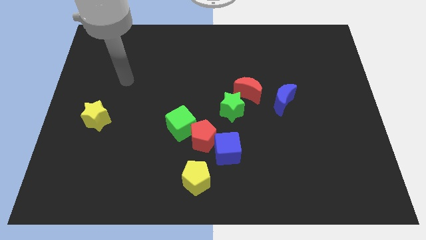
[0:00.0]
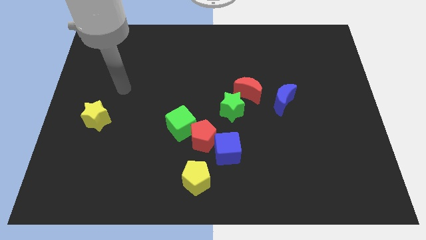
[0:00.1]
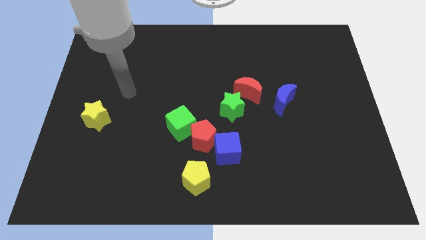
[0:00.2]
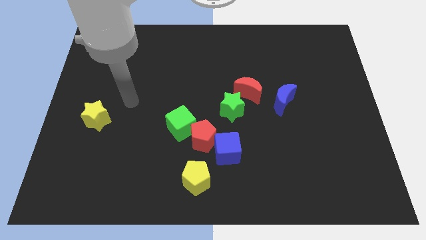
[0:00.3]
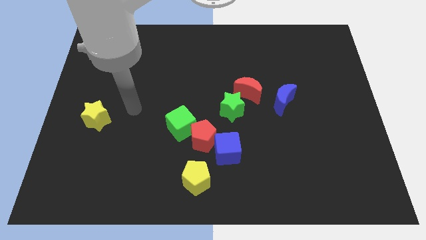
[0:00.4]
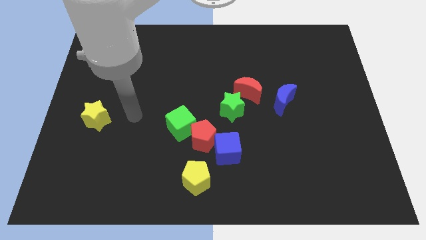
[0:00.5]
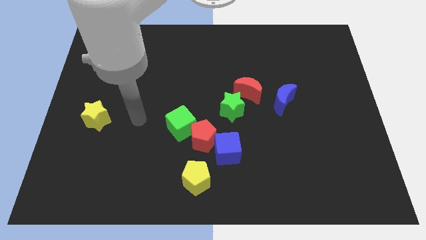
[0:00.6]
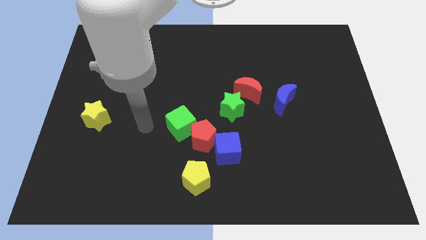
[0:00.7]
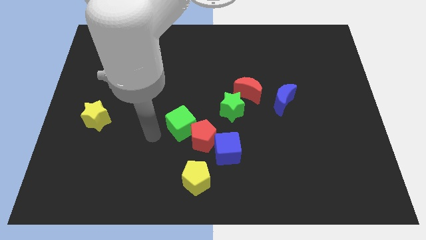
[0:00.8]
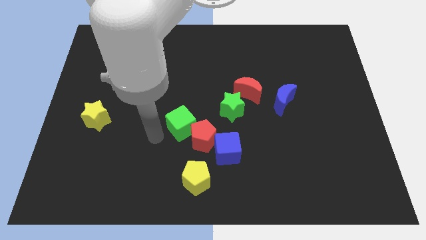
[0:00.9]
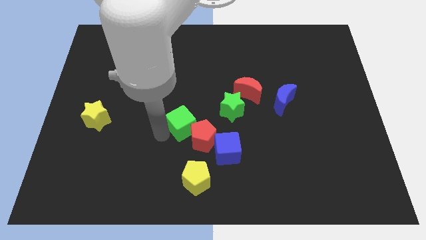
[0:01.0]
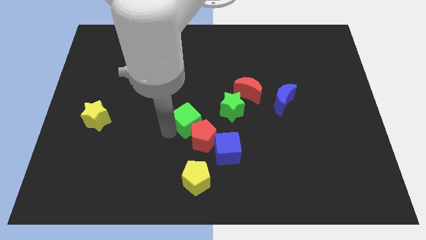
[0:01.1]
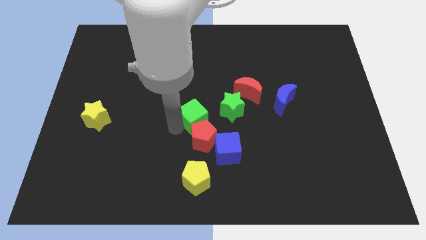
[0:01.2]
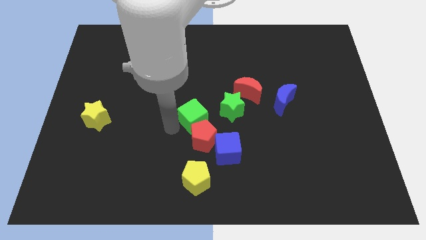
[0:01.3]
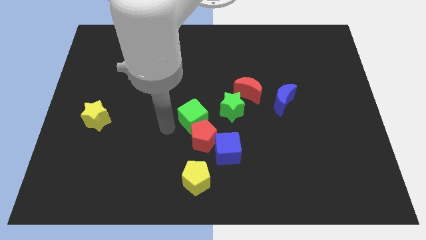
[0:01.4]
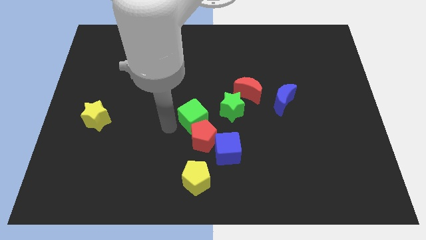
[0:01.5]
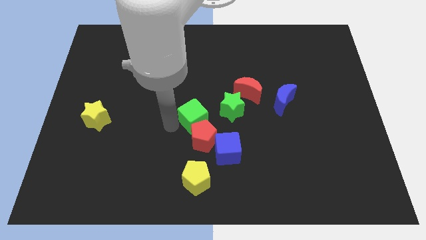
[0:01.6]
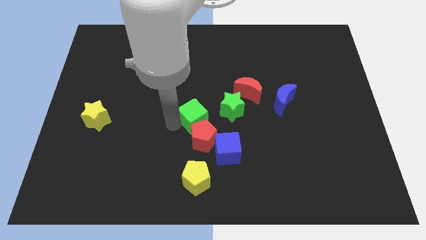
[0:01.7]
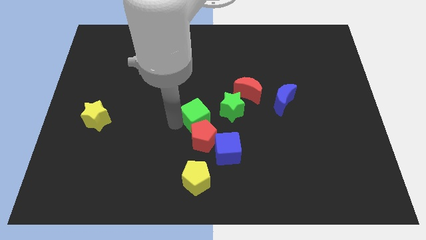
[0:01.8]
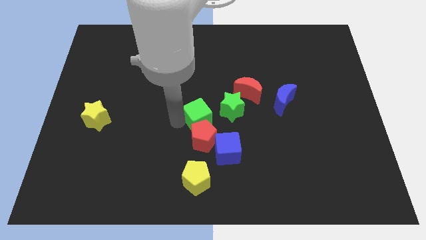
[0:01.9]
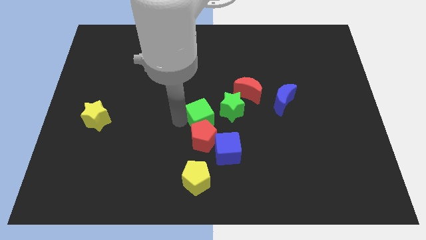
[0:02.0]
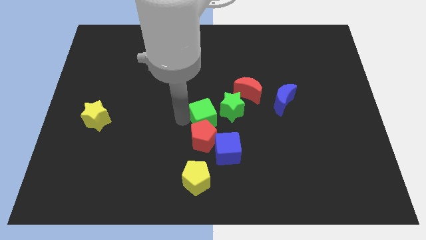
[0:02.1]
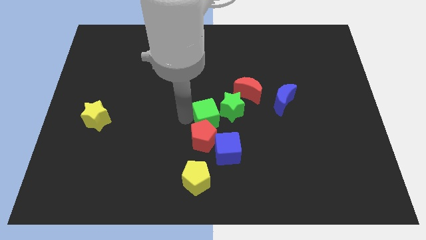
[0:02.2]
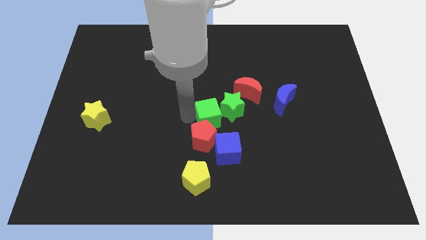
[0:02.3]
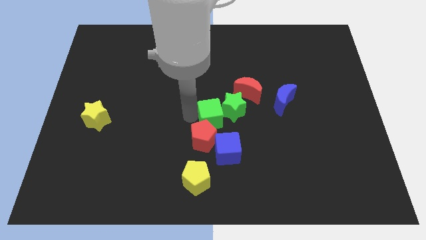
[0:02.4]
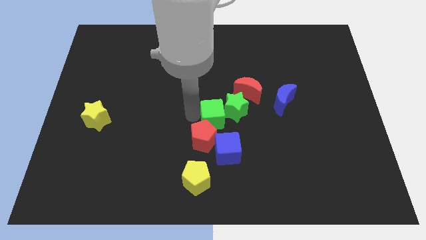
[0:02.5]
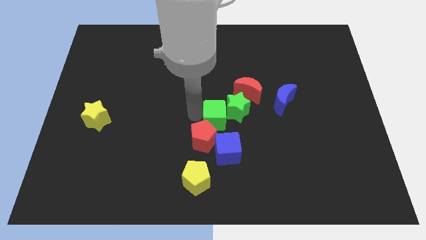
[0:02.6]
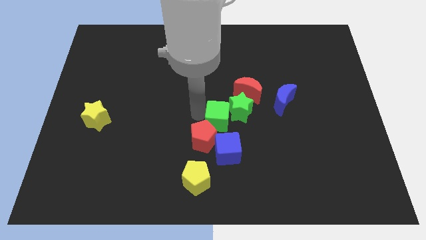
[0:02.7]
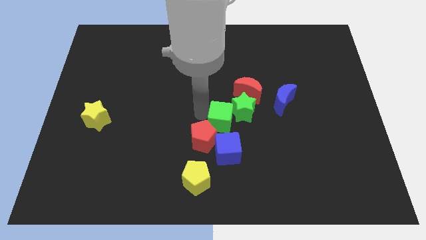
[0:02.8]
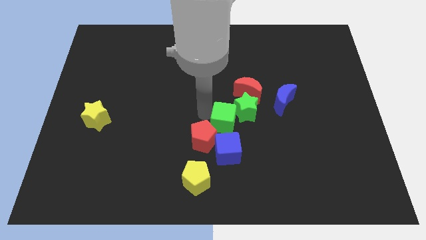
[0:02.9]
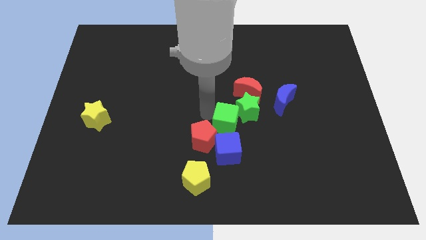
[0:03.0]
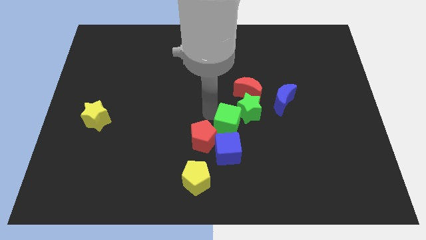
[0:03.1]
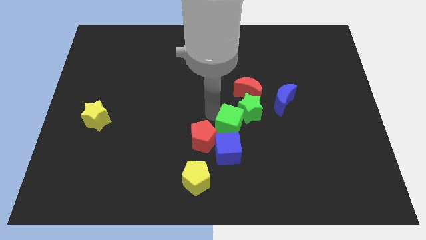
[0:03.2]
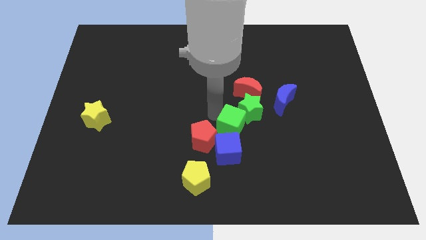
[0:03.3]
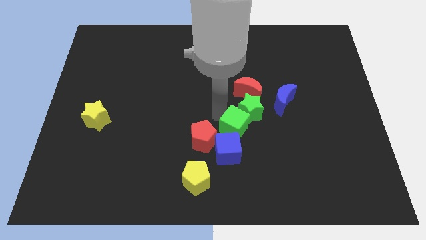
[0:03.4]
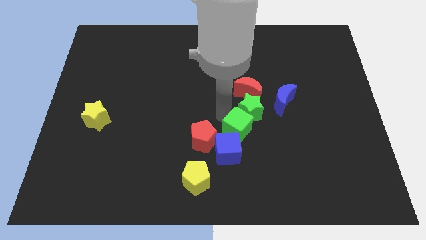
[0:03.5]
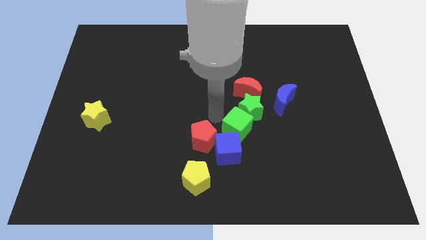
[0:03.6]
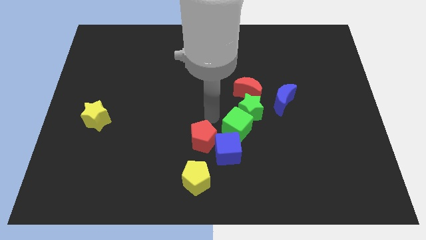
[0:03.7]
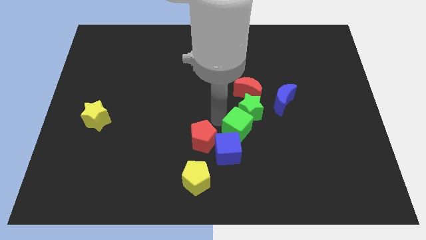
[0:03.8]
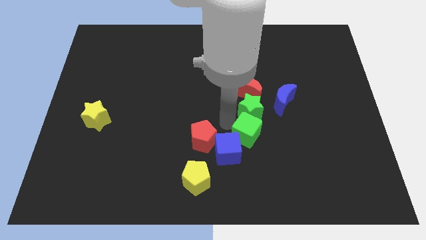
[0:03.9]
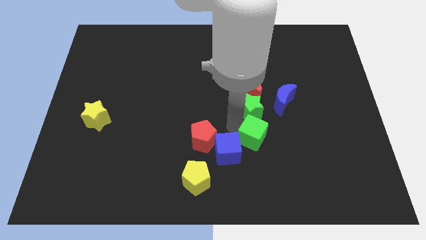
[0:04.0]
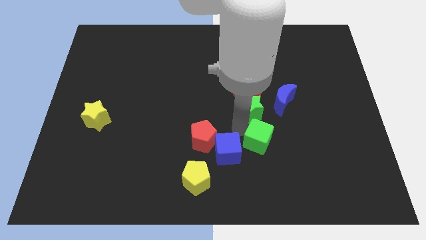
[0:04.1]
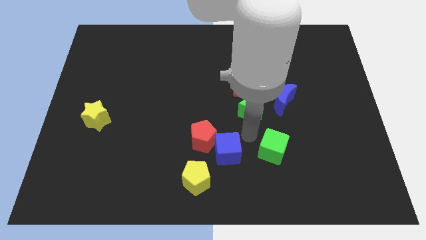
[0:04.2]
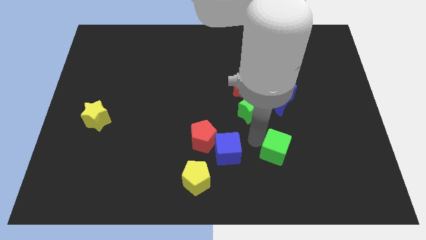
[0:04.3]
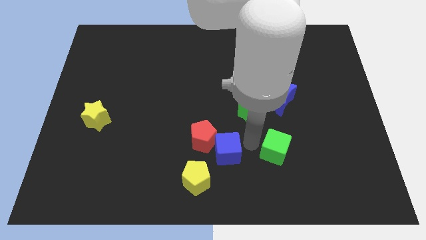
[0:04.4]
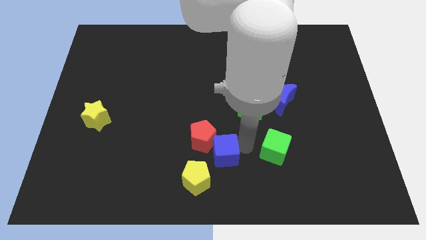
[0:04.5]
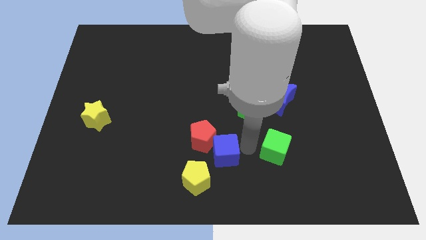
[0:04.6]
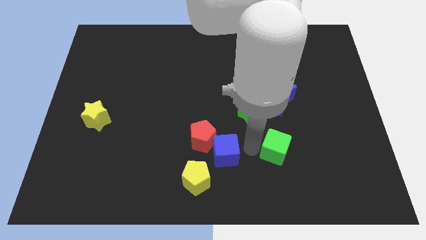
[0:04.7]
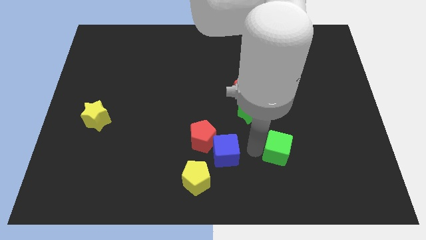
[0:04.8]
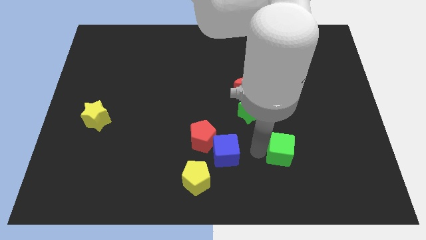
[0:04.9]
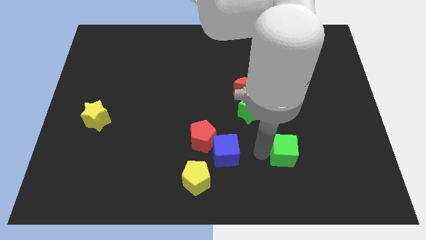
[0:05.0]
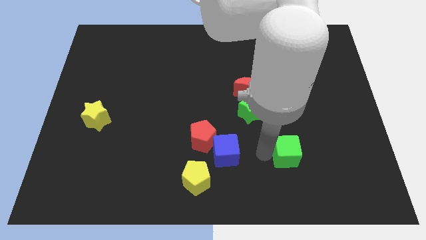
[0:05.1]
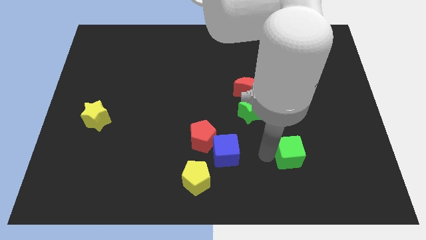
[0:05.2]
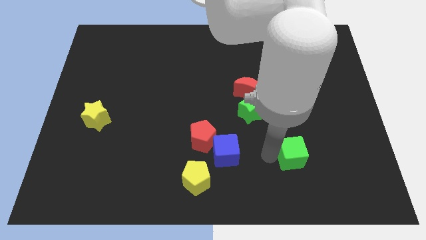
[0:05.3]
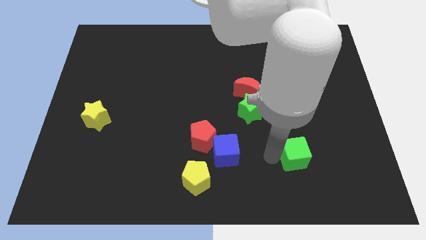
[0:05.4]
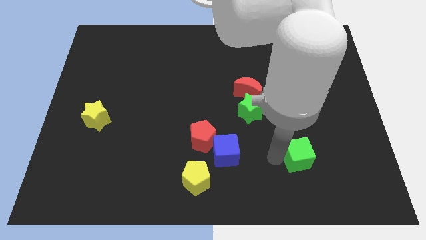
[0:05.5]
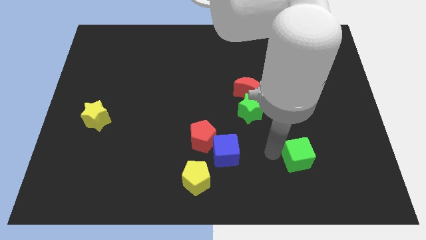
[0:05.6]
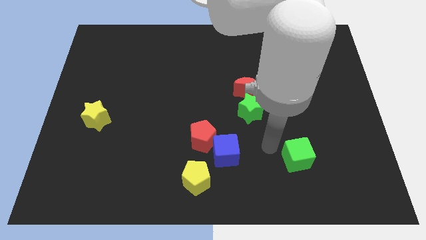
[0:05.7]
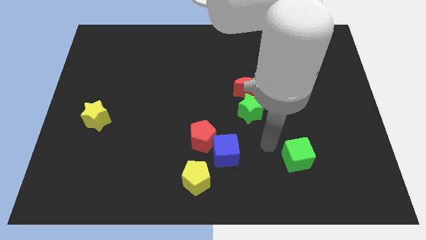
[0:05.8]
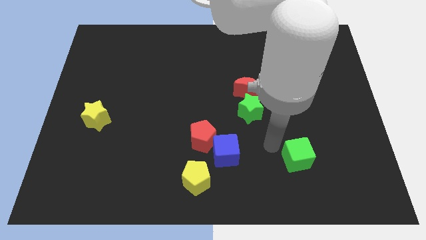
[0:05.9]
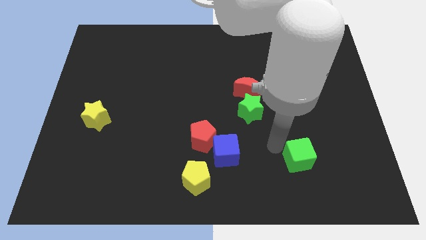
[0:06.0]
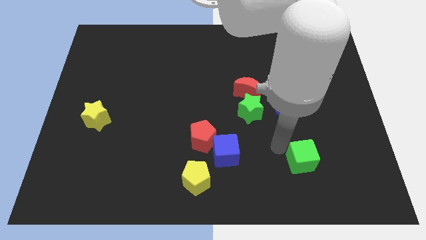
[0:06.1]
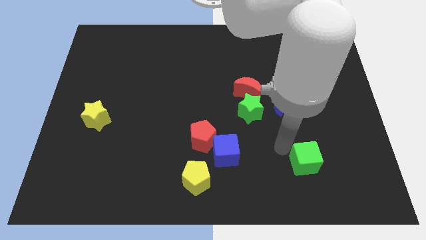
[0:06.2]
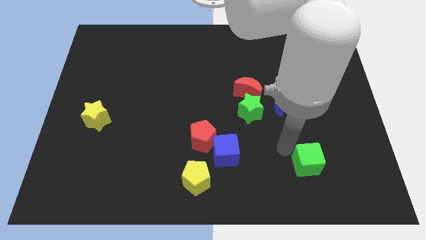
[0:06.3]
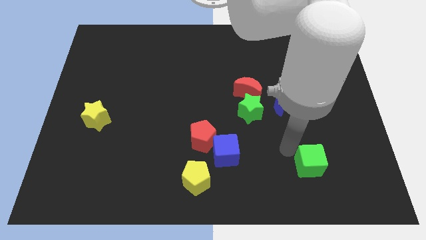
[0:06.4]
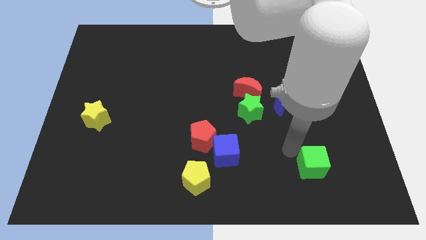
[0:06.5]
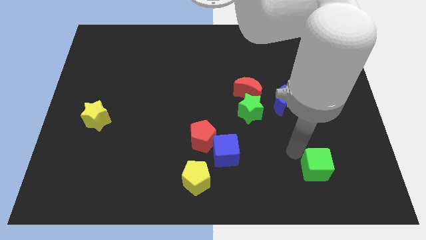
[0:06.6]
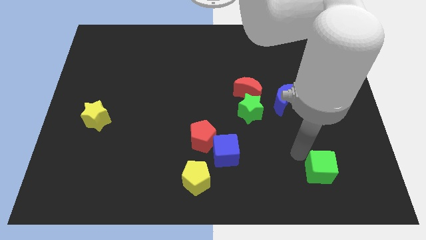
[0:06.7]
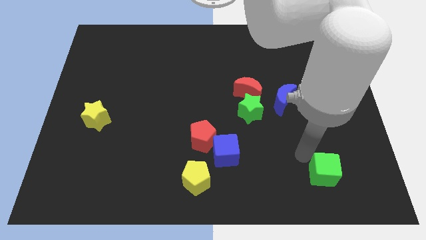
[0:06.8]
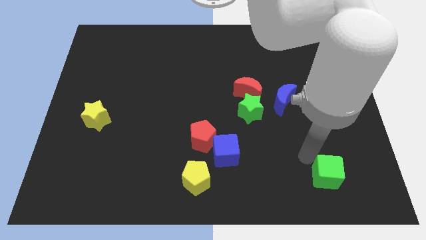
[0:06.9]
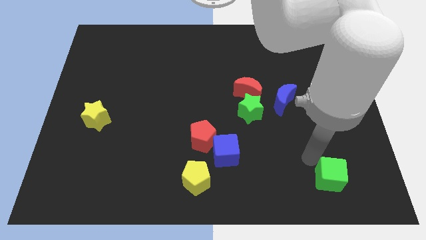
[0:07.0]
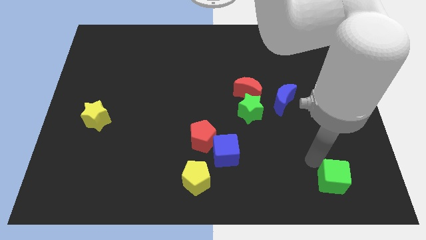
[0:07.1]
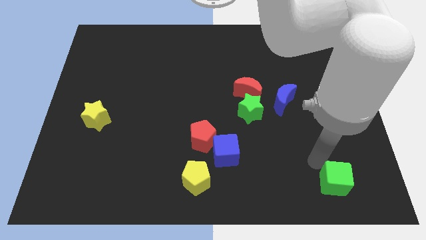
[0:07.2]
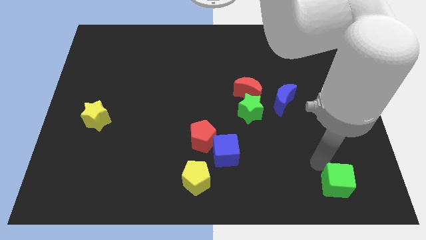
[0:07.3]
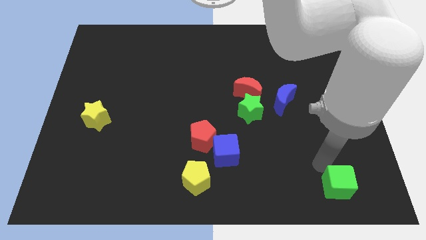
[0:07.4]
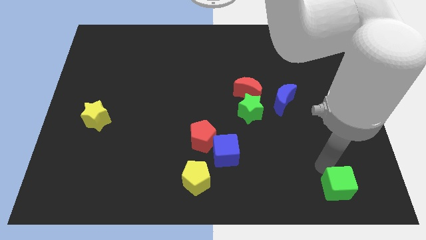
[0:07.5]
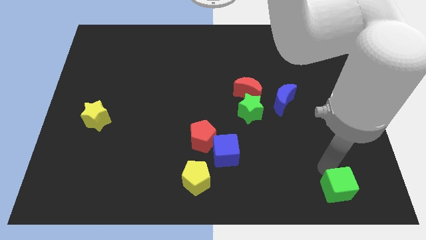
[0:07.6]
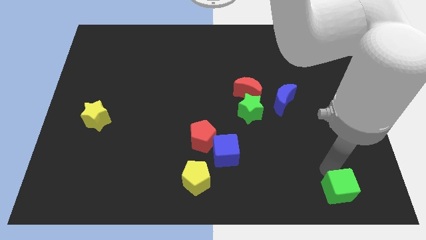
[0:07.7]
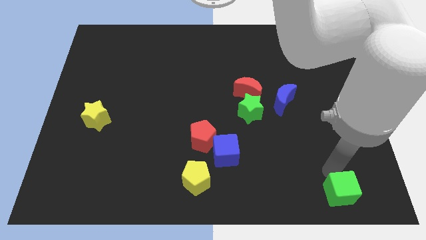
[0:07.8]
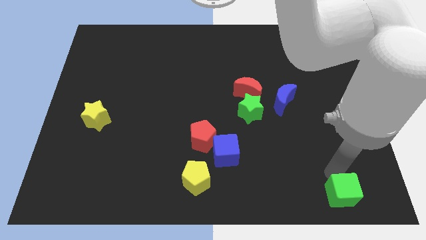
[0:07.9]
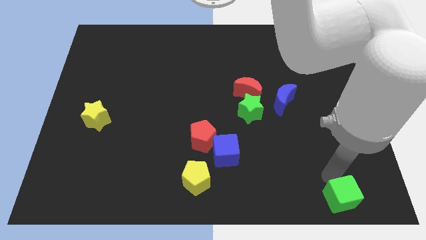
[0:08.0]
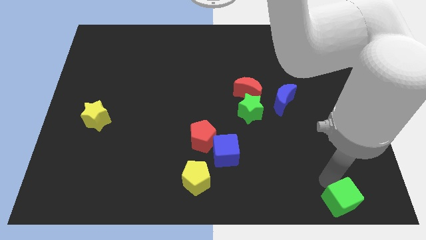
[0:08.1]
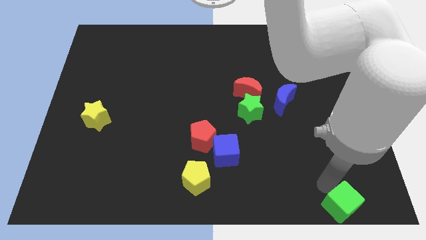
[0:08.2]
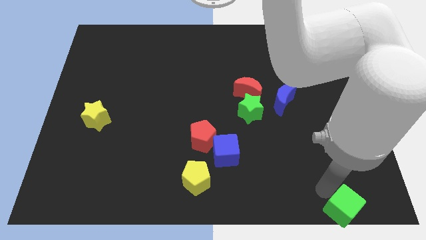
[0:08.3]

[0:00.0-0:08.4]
slide the green cube to the lower right corner
